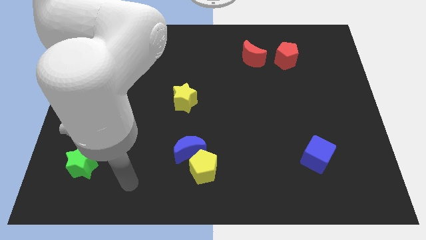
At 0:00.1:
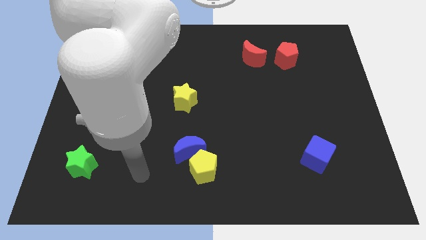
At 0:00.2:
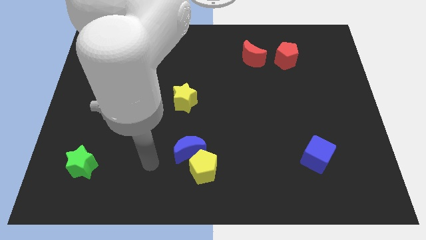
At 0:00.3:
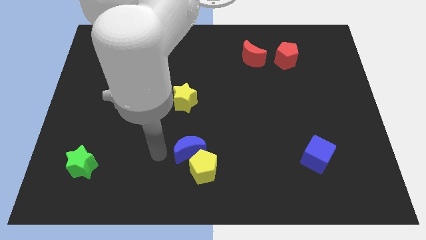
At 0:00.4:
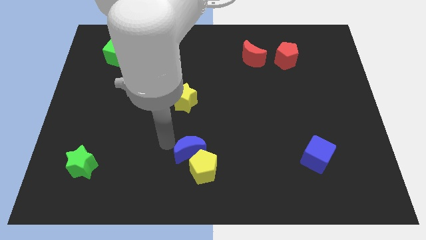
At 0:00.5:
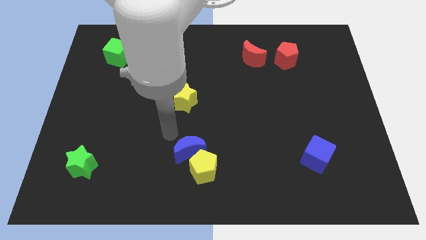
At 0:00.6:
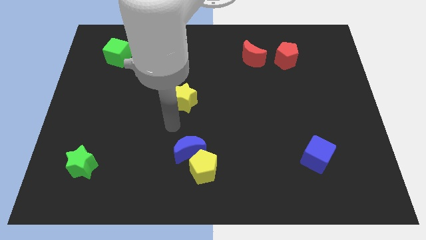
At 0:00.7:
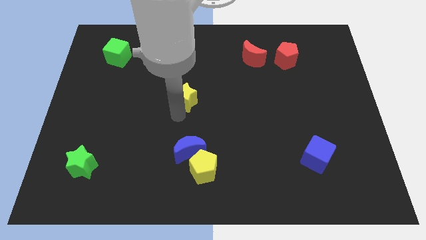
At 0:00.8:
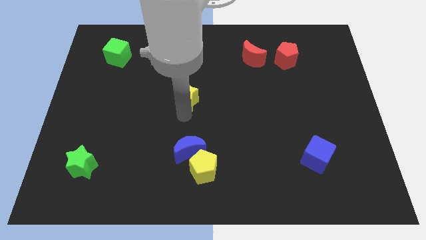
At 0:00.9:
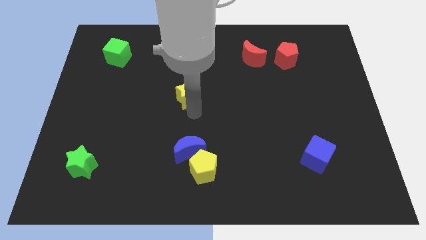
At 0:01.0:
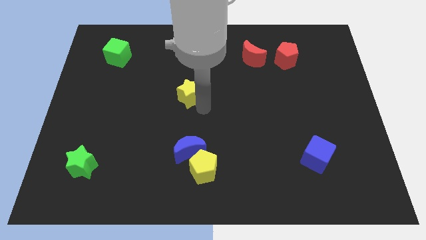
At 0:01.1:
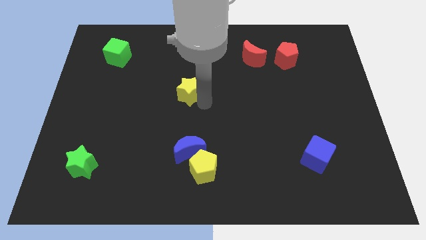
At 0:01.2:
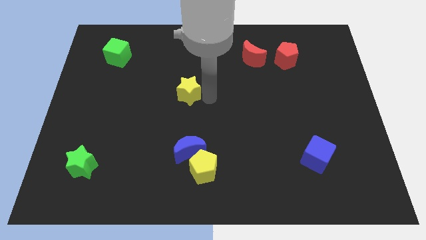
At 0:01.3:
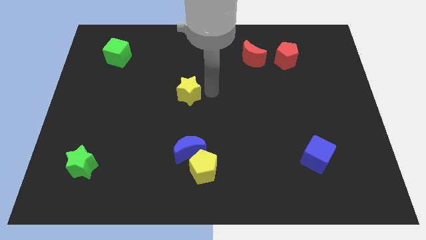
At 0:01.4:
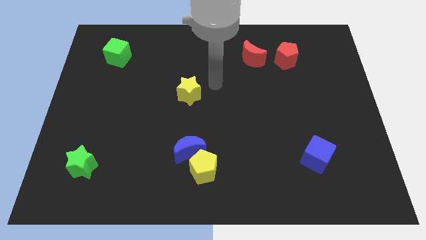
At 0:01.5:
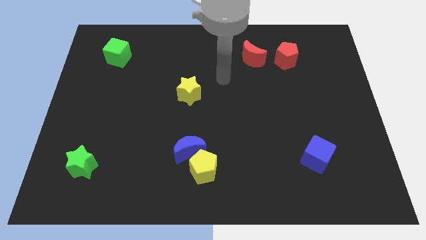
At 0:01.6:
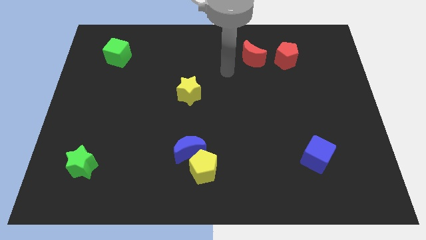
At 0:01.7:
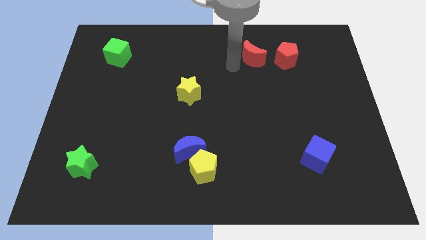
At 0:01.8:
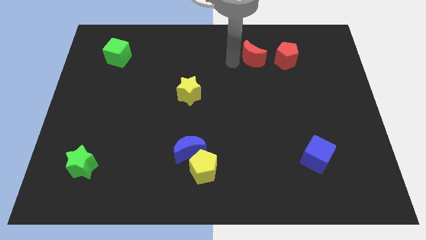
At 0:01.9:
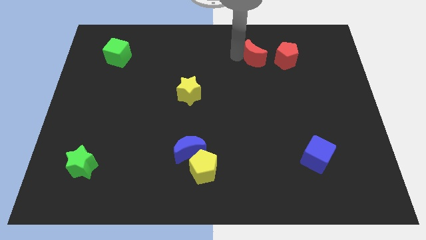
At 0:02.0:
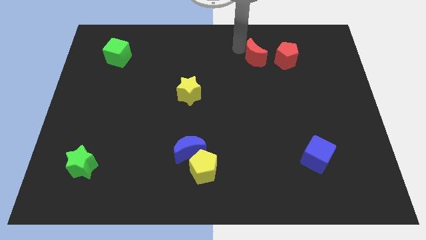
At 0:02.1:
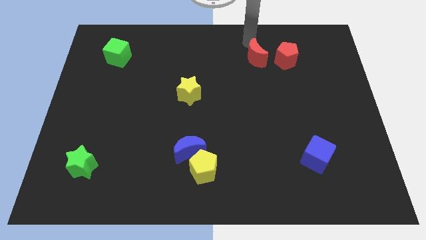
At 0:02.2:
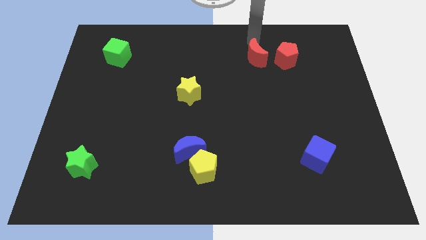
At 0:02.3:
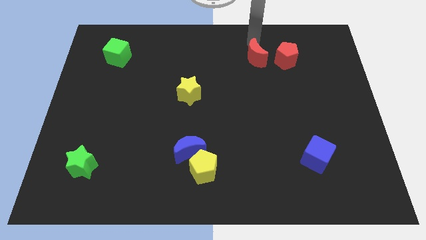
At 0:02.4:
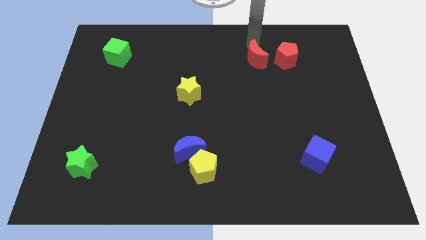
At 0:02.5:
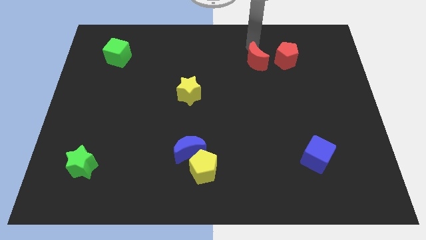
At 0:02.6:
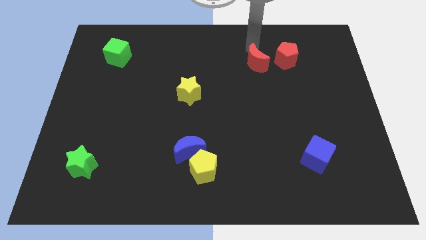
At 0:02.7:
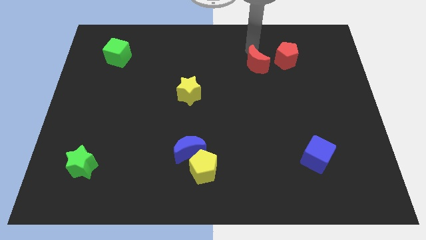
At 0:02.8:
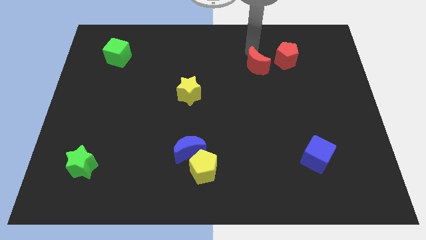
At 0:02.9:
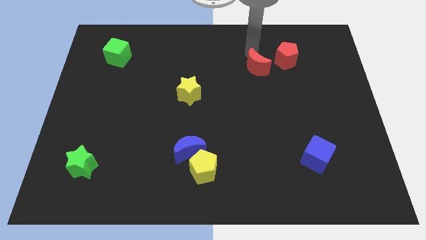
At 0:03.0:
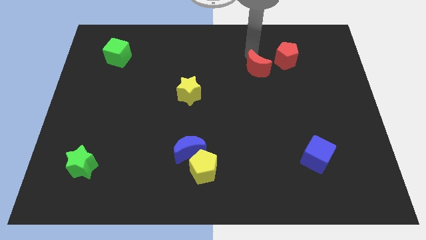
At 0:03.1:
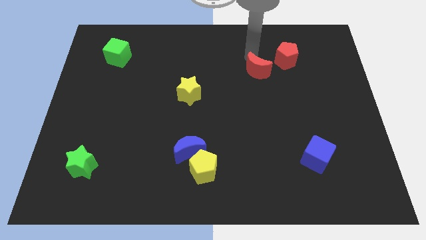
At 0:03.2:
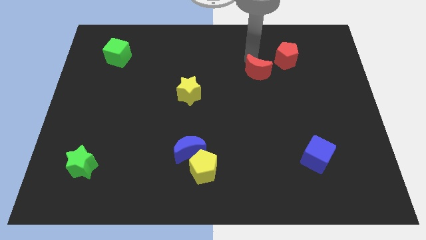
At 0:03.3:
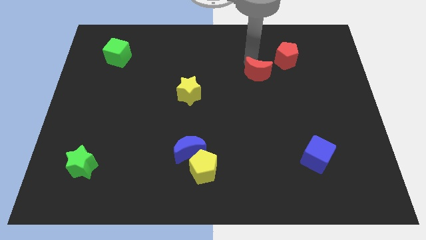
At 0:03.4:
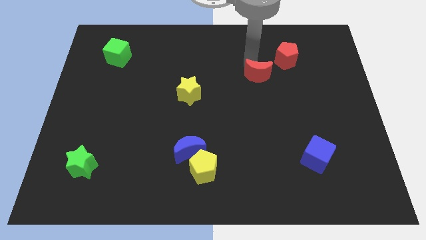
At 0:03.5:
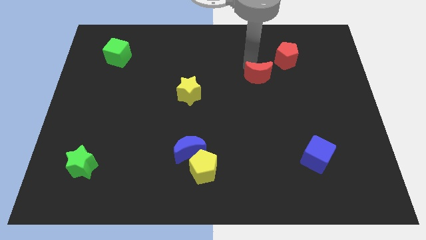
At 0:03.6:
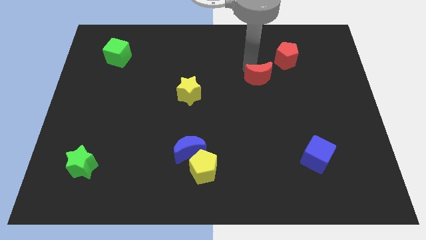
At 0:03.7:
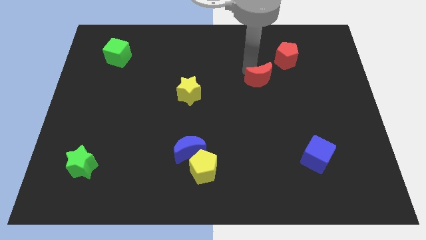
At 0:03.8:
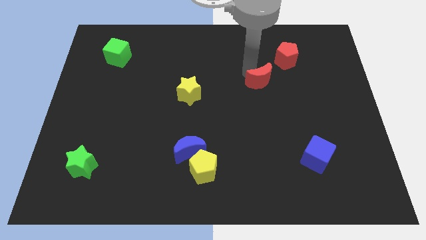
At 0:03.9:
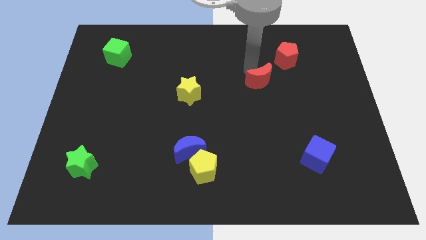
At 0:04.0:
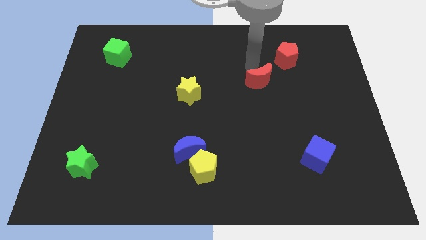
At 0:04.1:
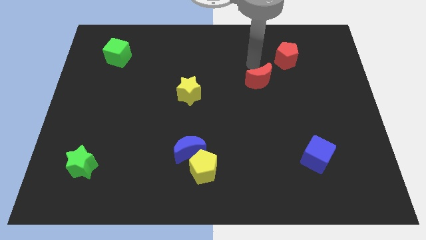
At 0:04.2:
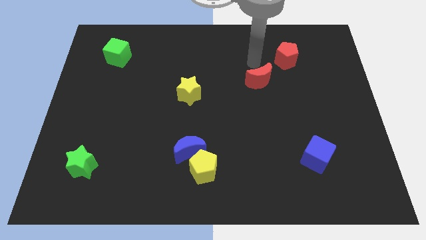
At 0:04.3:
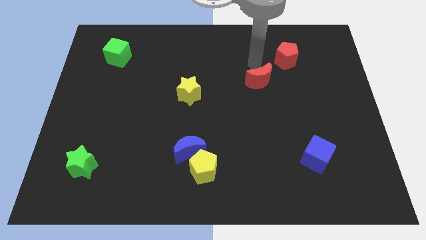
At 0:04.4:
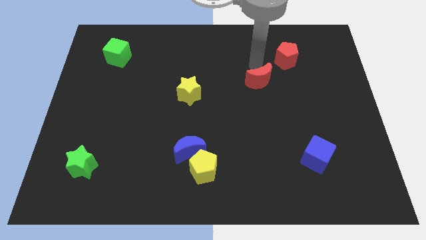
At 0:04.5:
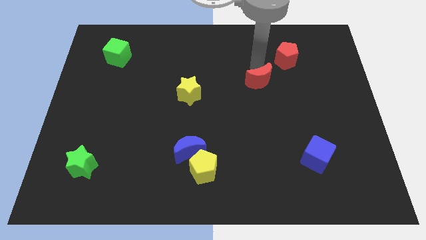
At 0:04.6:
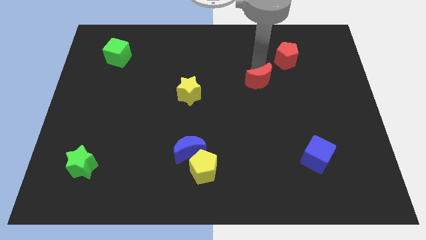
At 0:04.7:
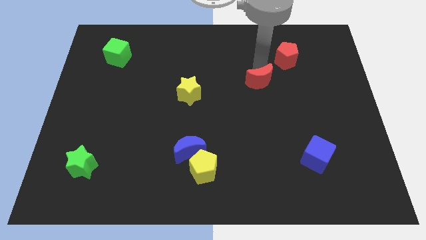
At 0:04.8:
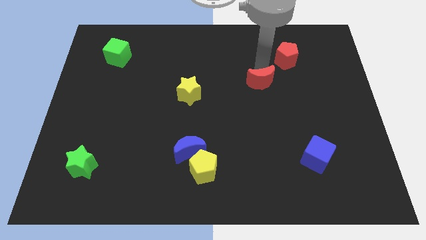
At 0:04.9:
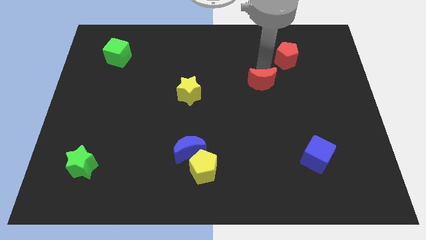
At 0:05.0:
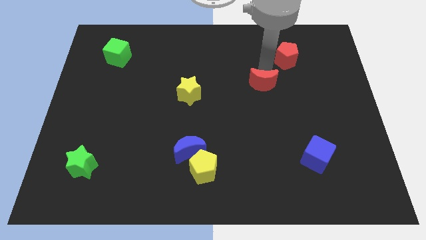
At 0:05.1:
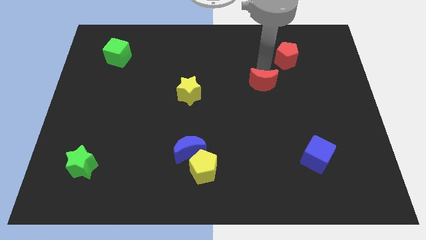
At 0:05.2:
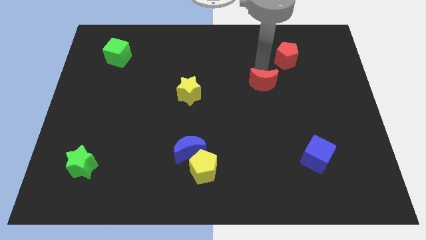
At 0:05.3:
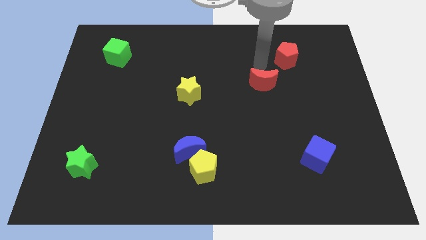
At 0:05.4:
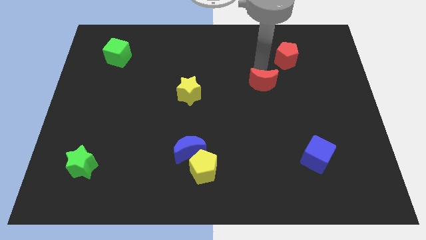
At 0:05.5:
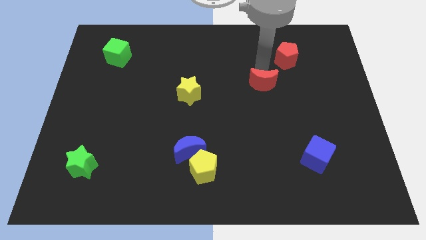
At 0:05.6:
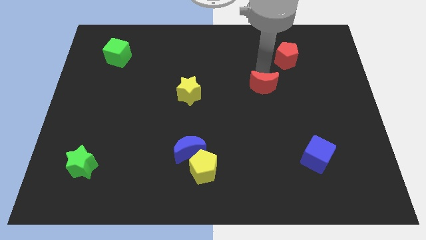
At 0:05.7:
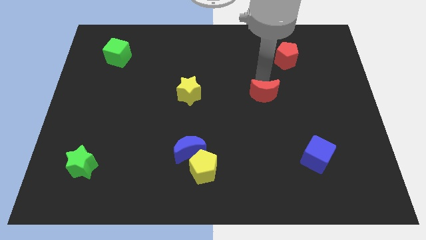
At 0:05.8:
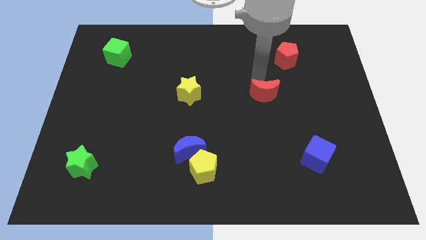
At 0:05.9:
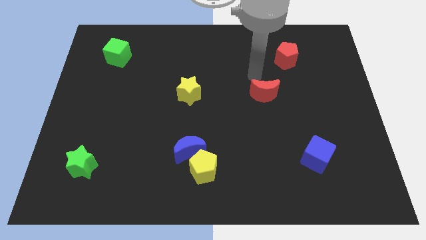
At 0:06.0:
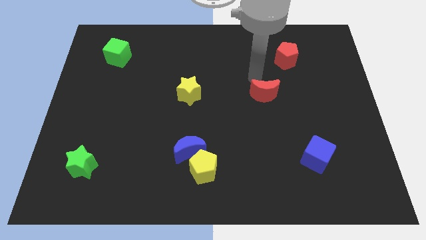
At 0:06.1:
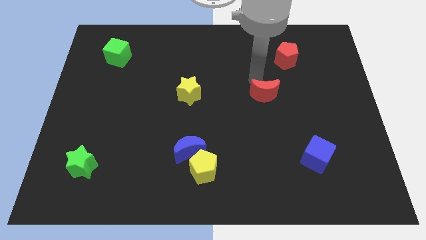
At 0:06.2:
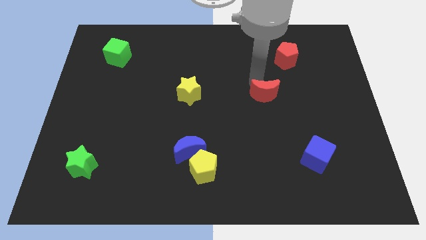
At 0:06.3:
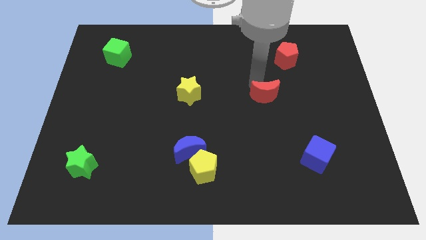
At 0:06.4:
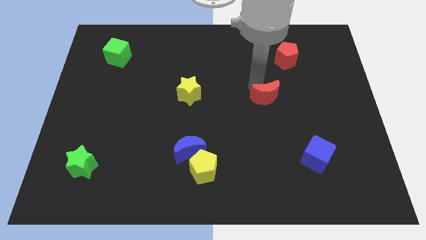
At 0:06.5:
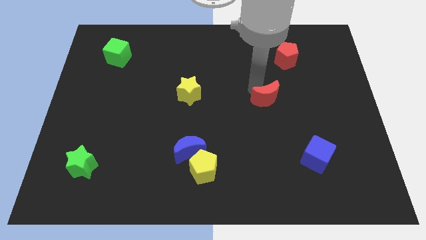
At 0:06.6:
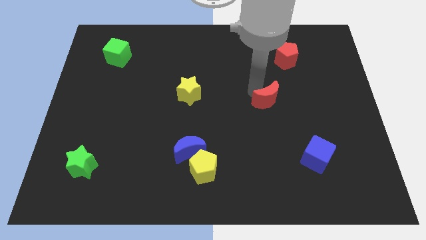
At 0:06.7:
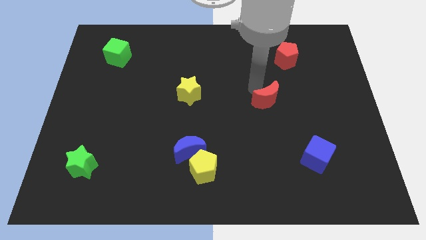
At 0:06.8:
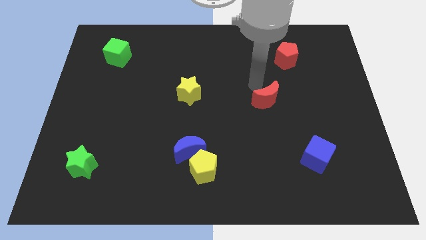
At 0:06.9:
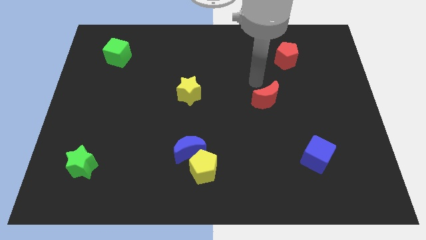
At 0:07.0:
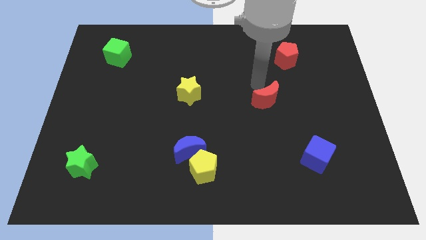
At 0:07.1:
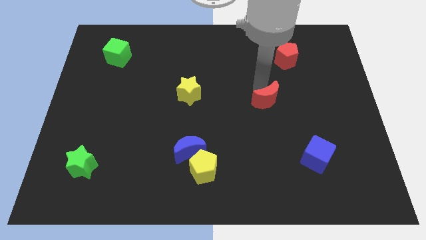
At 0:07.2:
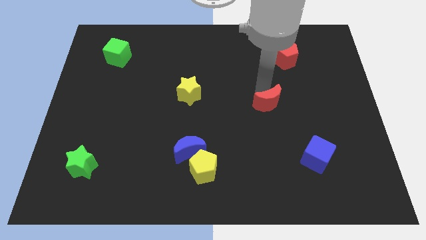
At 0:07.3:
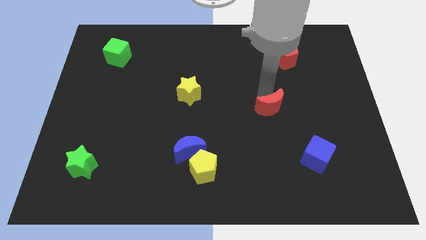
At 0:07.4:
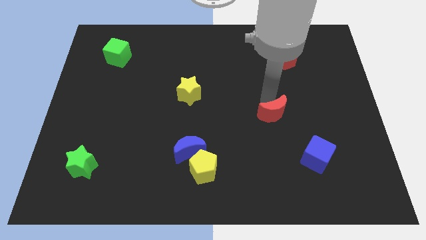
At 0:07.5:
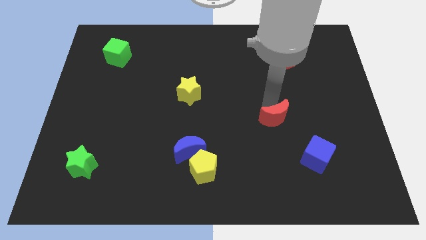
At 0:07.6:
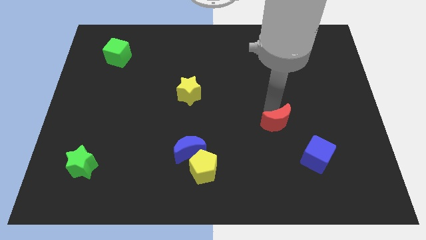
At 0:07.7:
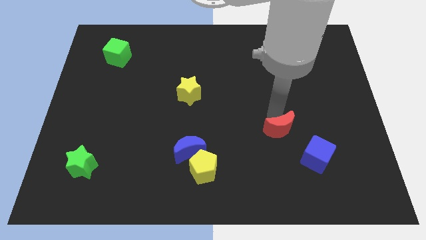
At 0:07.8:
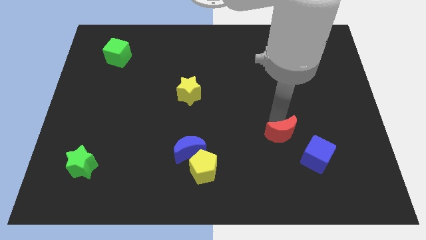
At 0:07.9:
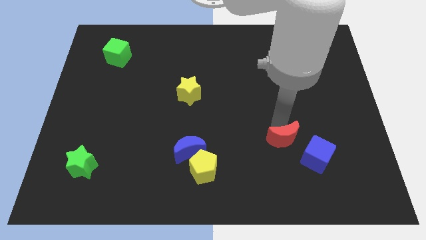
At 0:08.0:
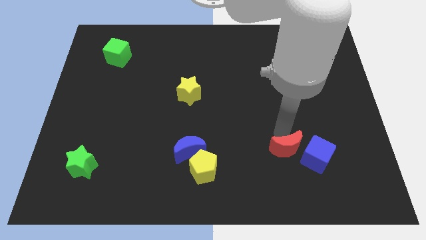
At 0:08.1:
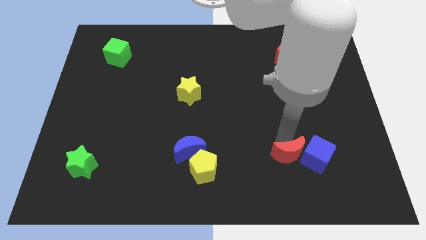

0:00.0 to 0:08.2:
push the red moon to the bottom left of the blue cube
